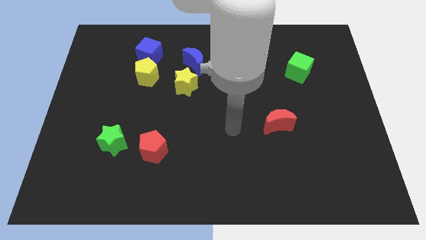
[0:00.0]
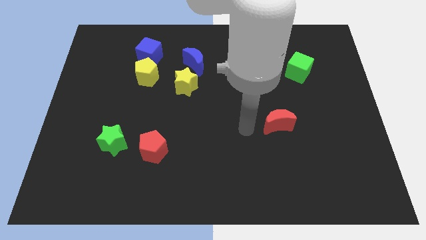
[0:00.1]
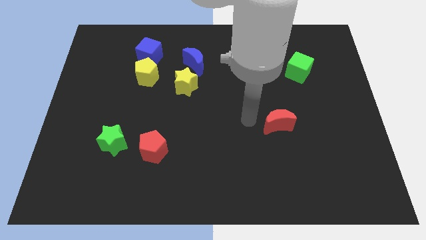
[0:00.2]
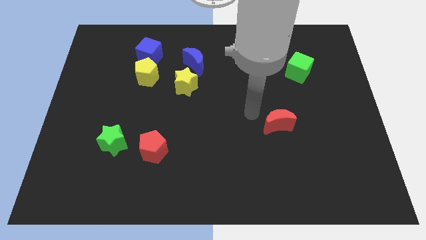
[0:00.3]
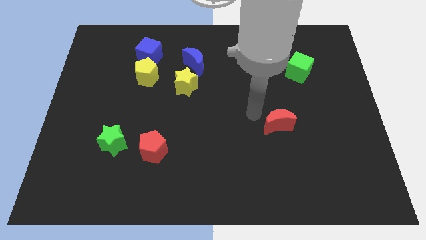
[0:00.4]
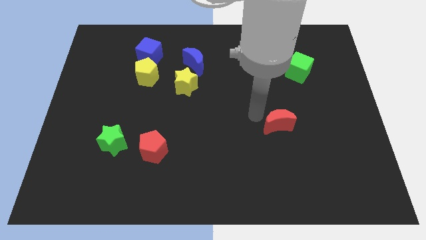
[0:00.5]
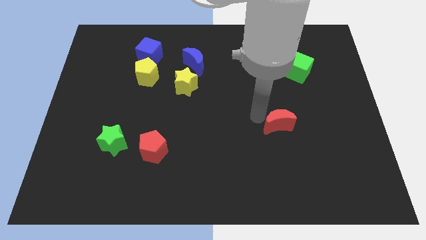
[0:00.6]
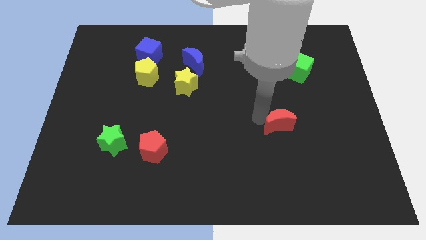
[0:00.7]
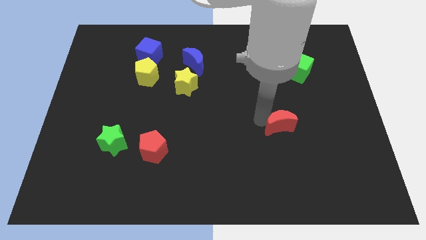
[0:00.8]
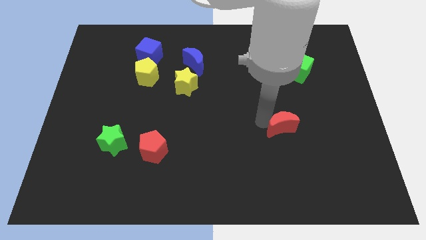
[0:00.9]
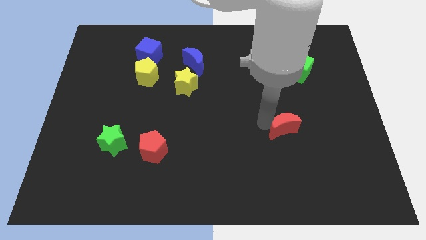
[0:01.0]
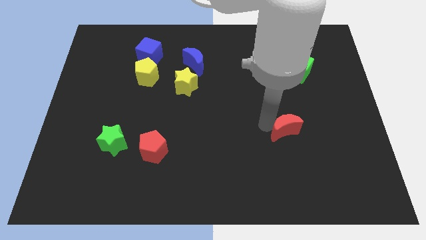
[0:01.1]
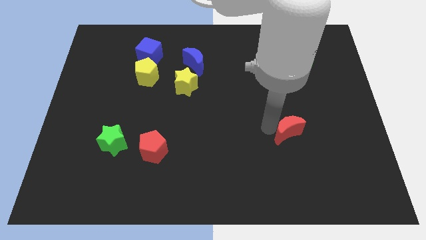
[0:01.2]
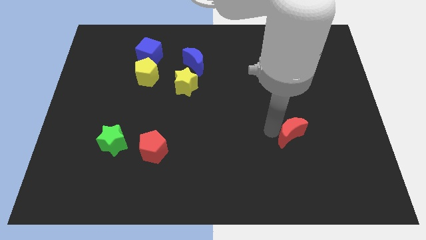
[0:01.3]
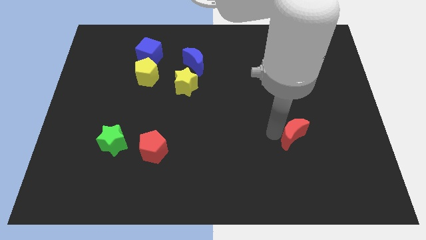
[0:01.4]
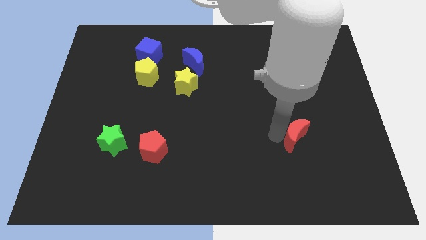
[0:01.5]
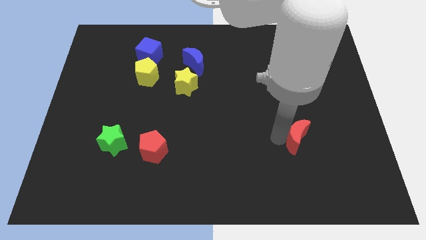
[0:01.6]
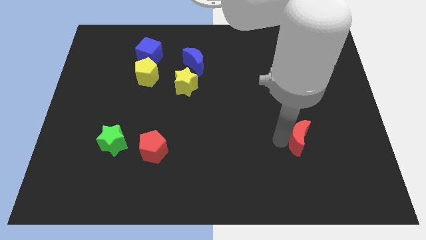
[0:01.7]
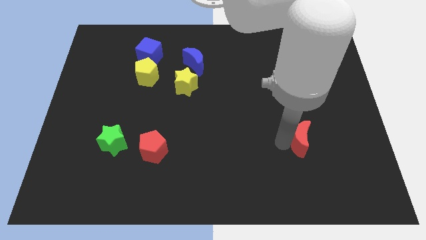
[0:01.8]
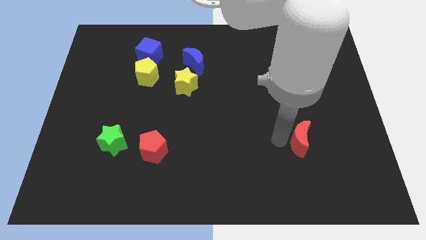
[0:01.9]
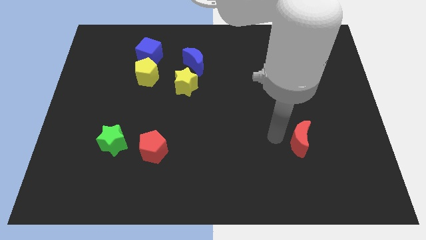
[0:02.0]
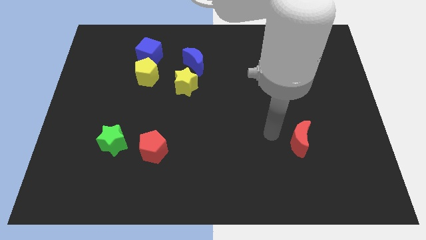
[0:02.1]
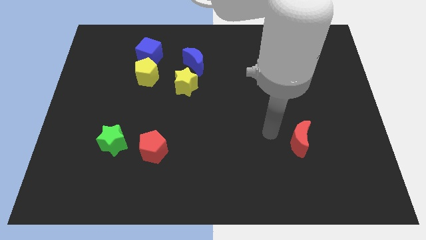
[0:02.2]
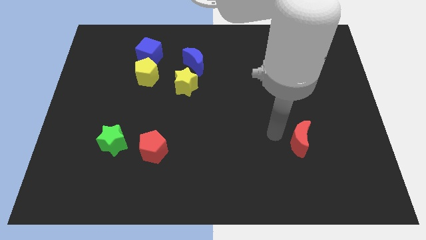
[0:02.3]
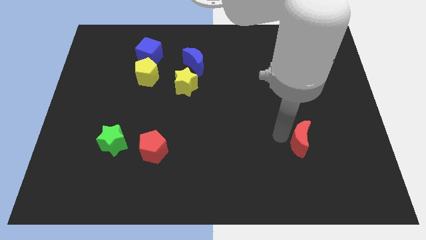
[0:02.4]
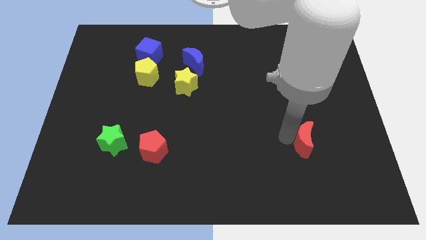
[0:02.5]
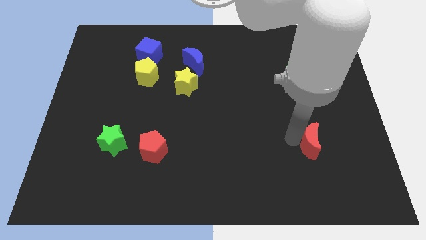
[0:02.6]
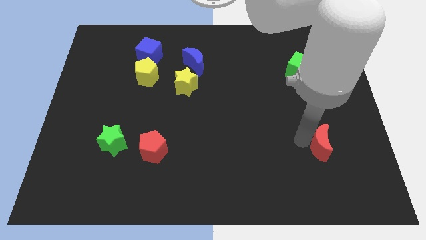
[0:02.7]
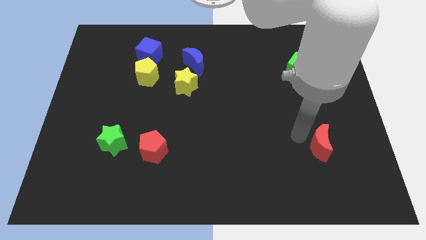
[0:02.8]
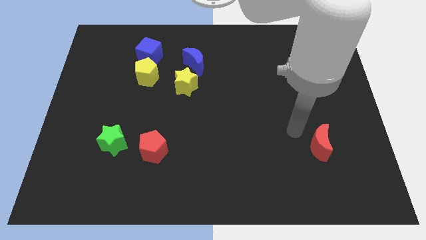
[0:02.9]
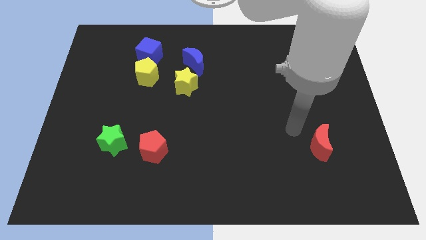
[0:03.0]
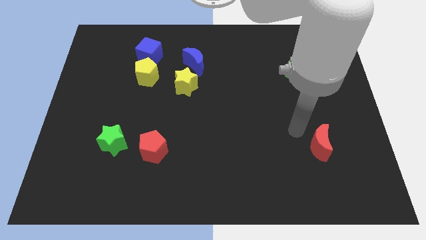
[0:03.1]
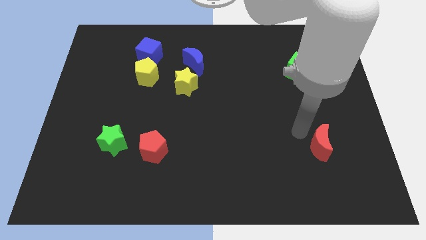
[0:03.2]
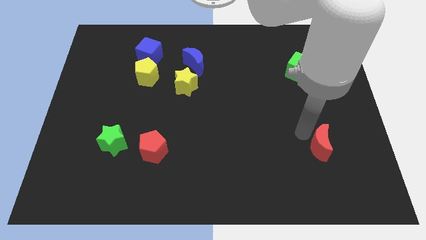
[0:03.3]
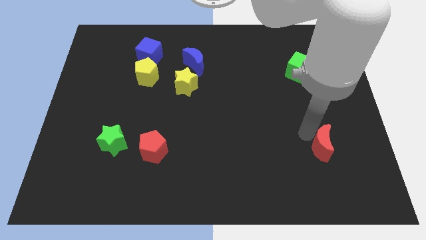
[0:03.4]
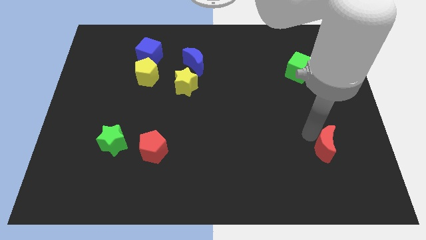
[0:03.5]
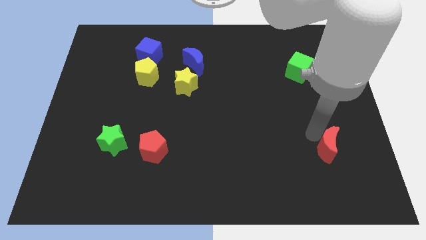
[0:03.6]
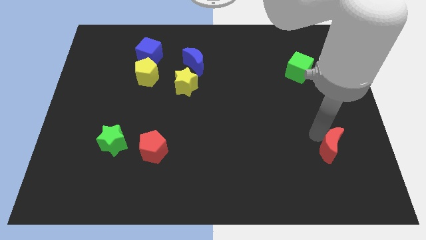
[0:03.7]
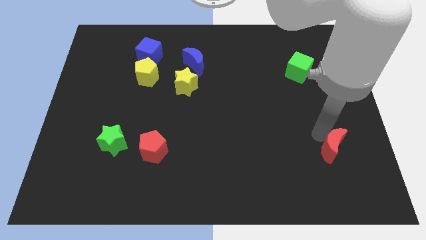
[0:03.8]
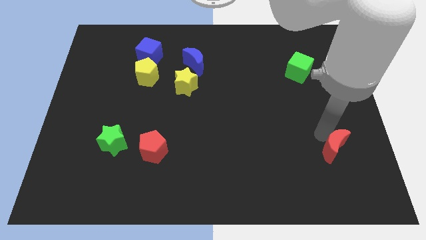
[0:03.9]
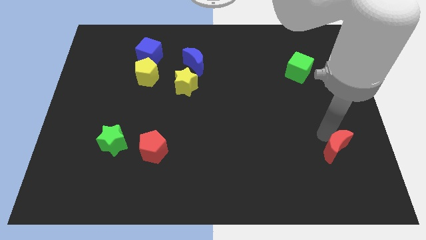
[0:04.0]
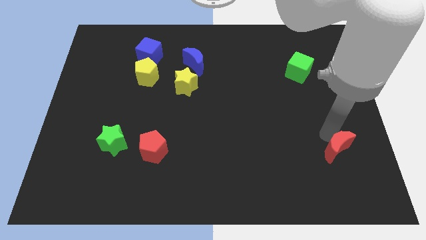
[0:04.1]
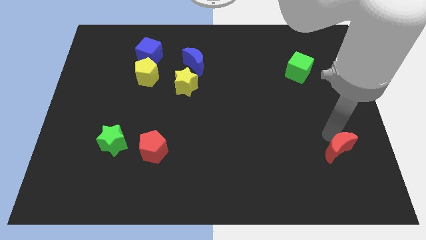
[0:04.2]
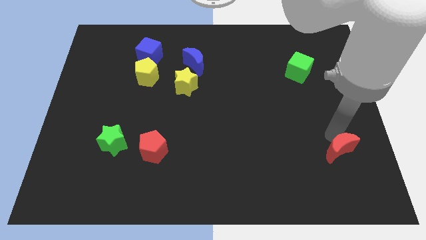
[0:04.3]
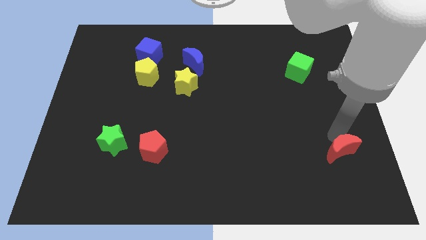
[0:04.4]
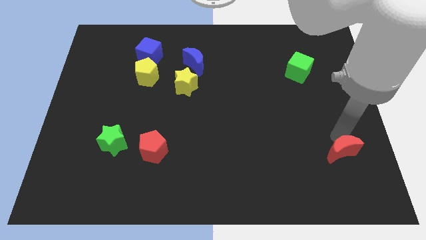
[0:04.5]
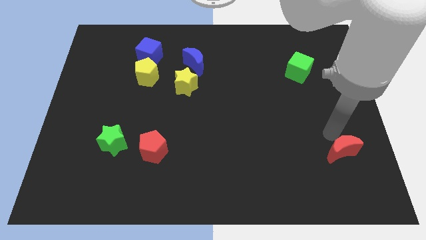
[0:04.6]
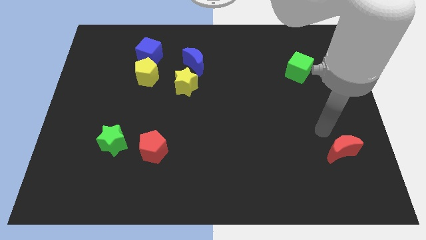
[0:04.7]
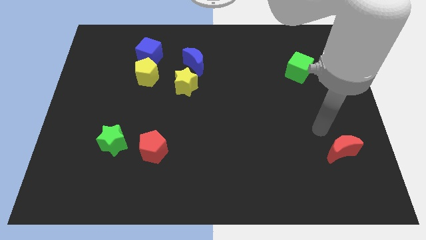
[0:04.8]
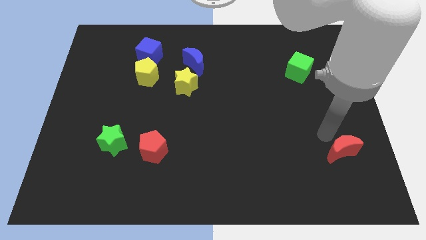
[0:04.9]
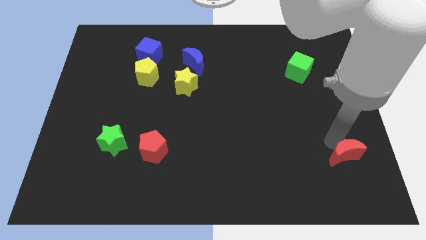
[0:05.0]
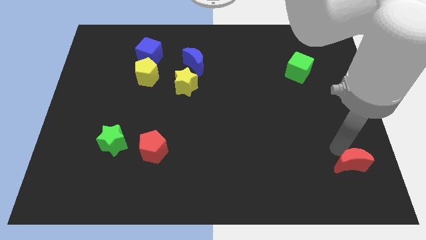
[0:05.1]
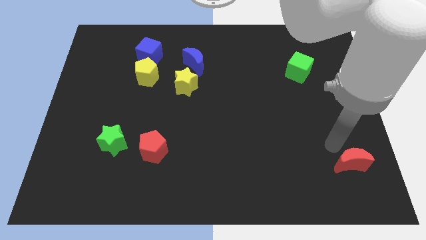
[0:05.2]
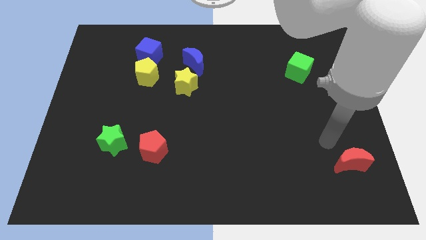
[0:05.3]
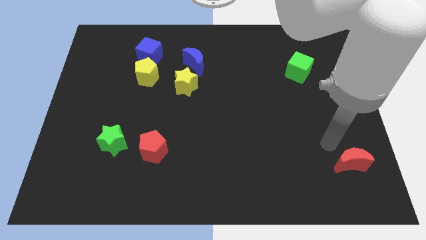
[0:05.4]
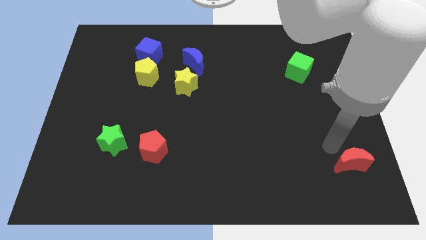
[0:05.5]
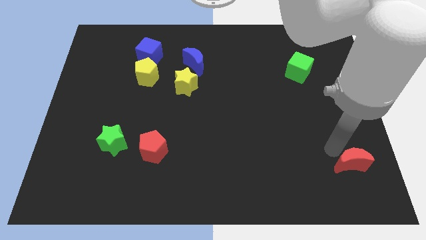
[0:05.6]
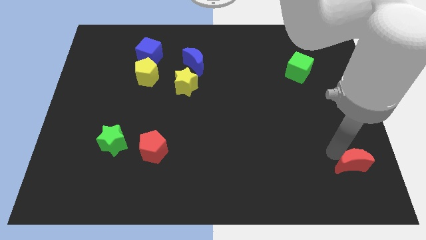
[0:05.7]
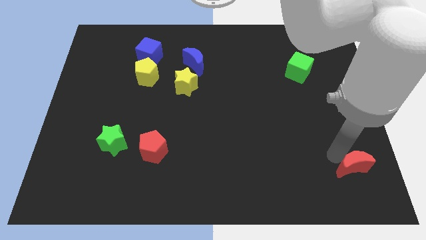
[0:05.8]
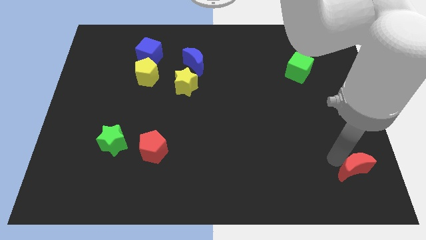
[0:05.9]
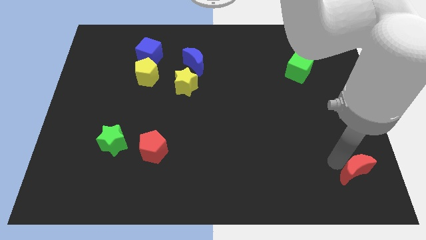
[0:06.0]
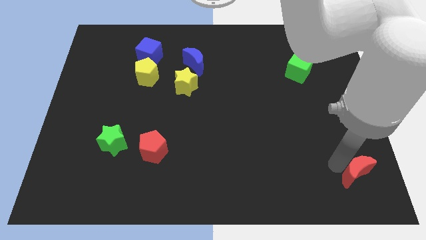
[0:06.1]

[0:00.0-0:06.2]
slide the red moon to the bottom right
